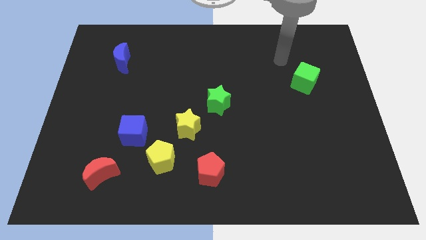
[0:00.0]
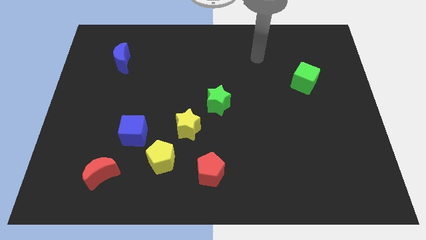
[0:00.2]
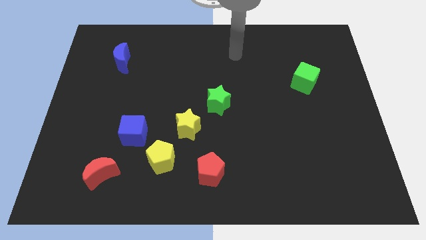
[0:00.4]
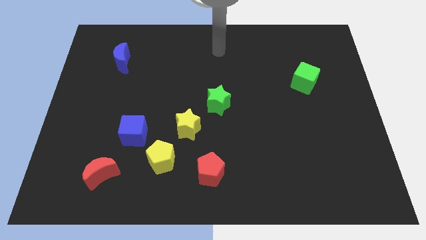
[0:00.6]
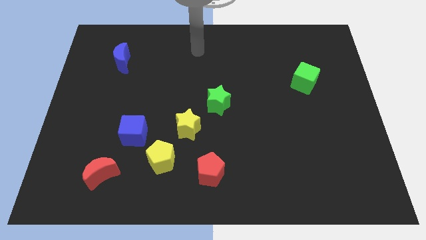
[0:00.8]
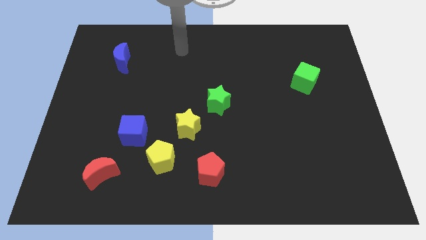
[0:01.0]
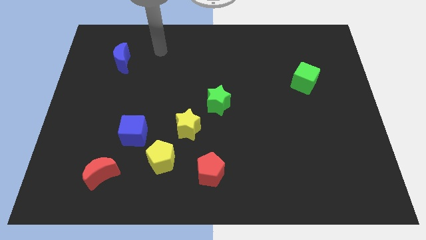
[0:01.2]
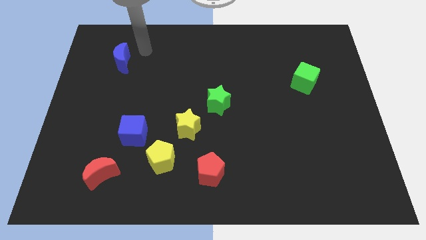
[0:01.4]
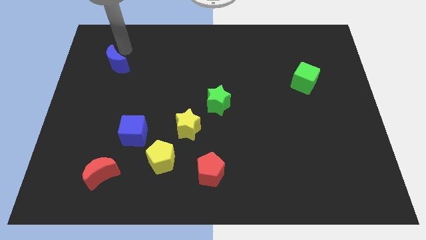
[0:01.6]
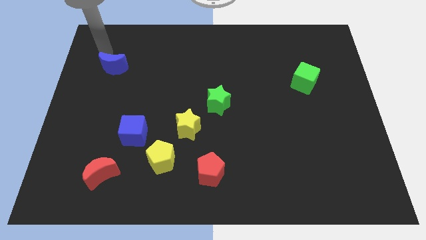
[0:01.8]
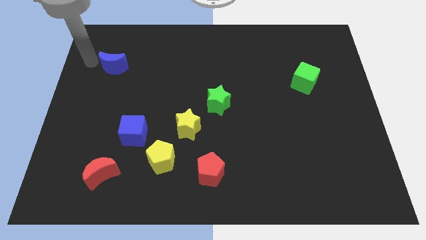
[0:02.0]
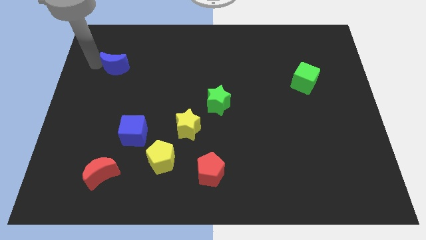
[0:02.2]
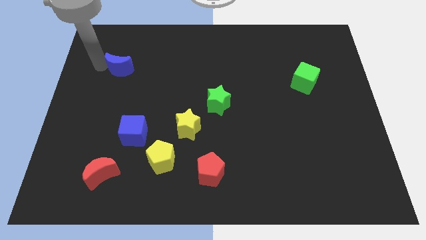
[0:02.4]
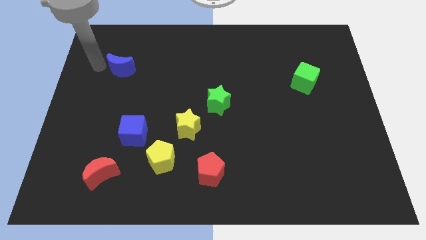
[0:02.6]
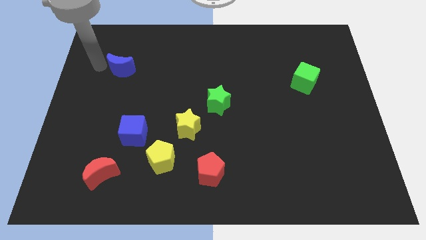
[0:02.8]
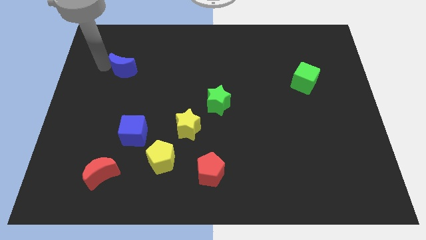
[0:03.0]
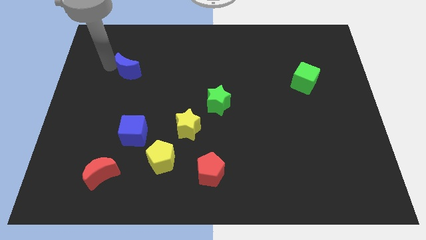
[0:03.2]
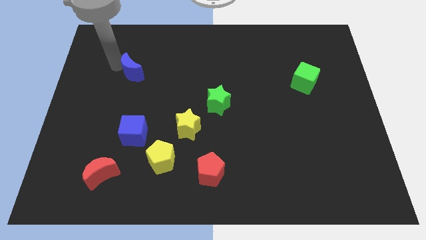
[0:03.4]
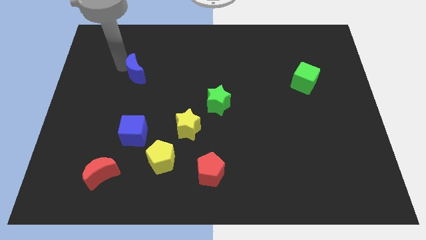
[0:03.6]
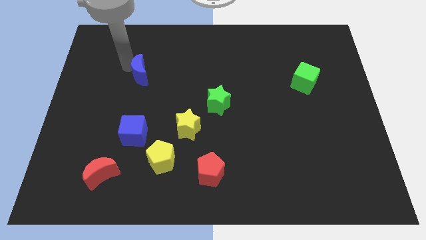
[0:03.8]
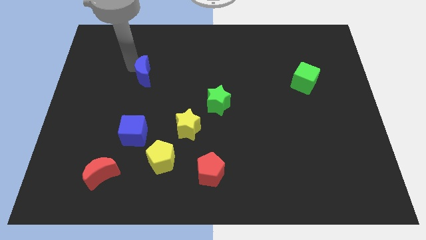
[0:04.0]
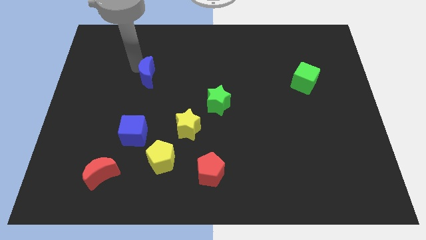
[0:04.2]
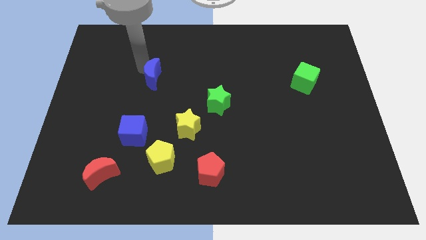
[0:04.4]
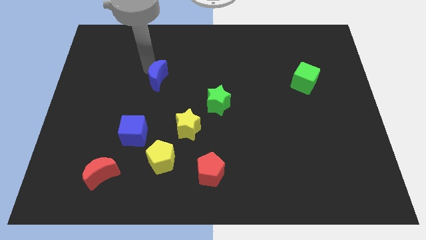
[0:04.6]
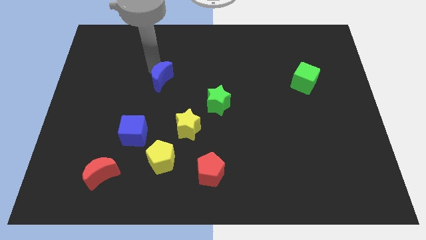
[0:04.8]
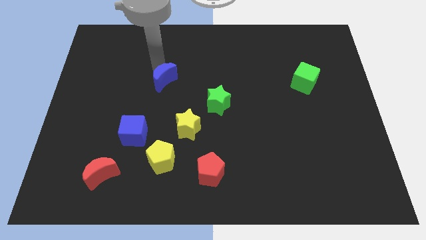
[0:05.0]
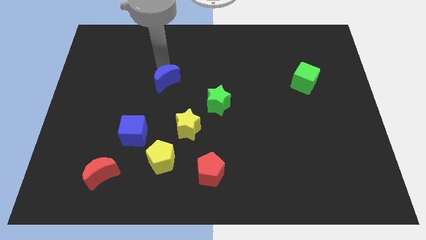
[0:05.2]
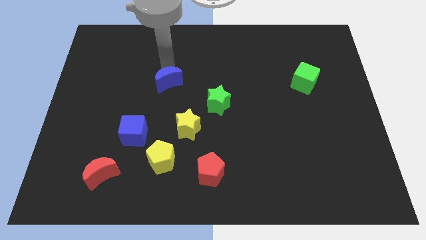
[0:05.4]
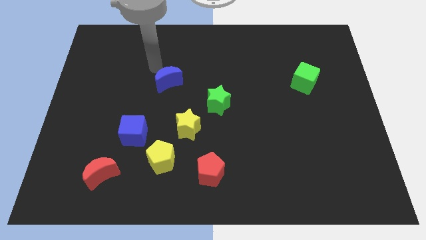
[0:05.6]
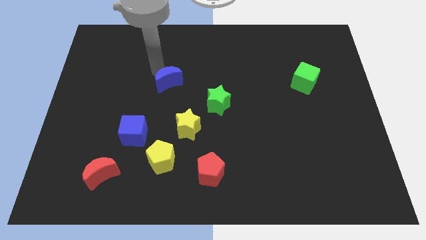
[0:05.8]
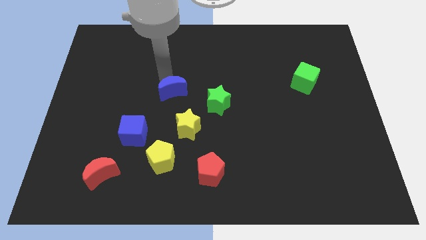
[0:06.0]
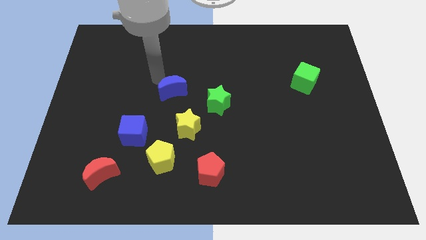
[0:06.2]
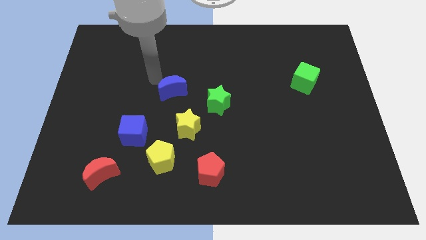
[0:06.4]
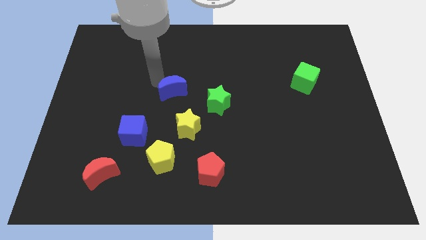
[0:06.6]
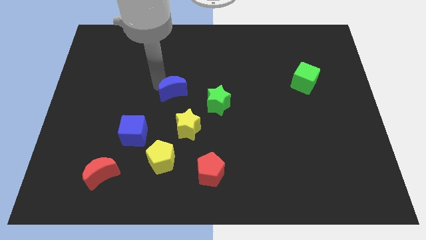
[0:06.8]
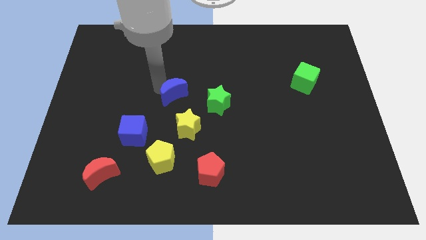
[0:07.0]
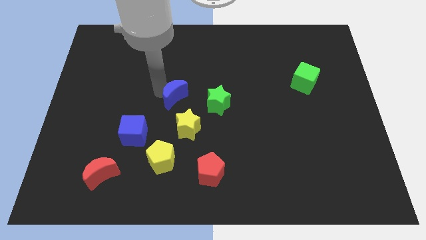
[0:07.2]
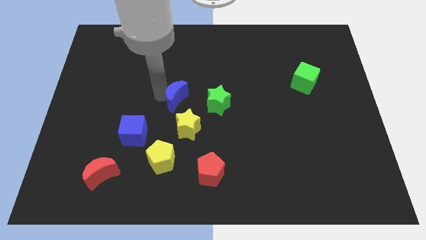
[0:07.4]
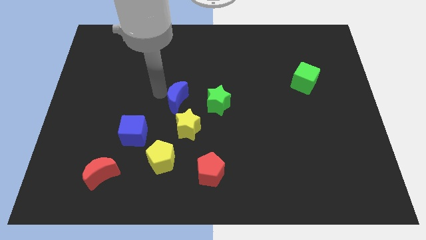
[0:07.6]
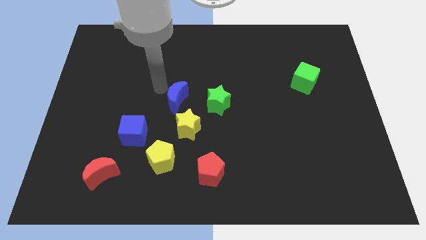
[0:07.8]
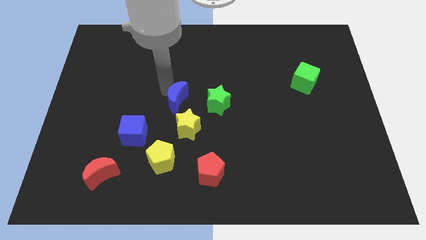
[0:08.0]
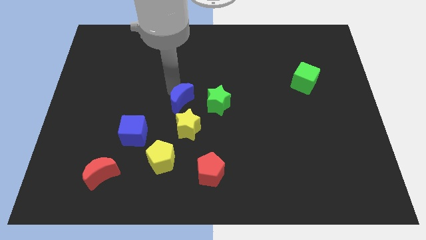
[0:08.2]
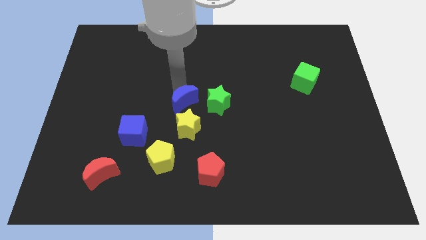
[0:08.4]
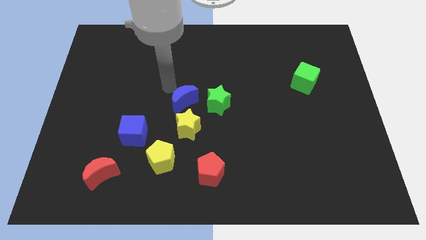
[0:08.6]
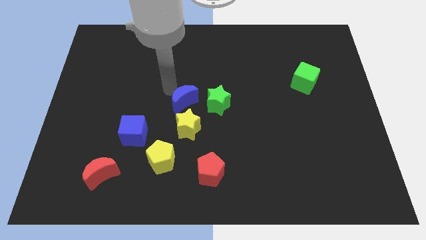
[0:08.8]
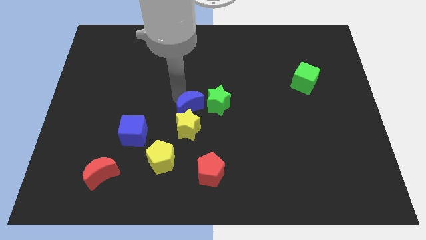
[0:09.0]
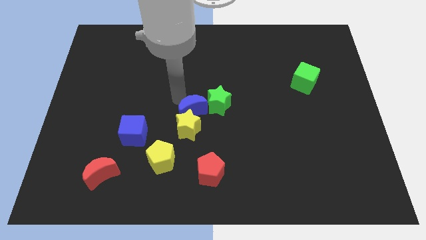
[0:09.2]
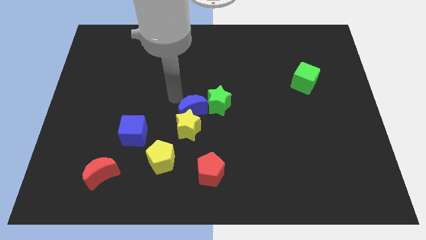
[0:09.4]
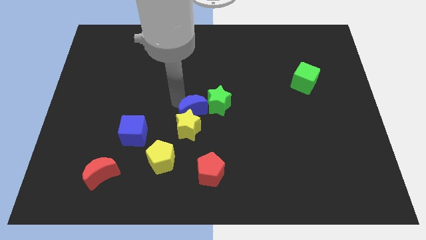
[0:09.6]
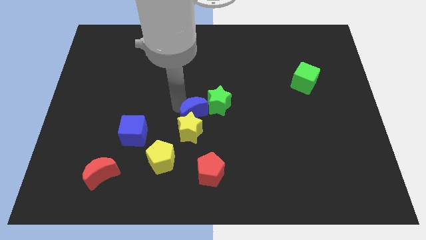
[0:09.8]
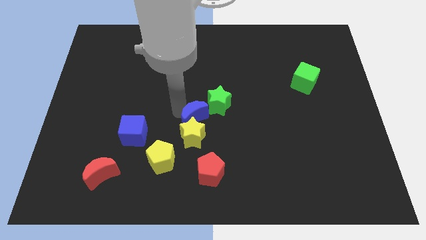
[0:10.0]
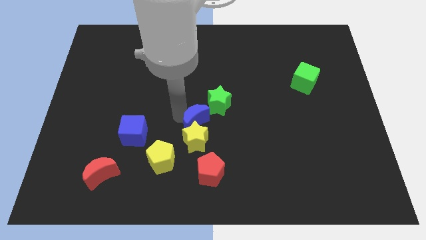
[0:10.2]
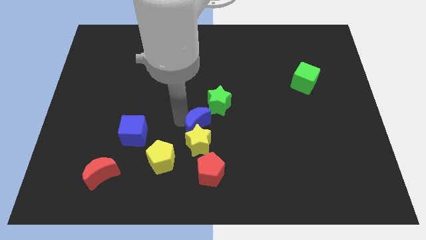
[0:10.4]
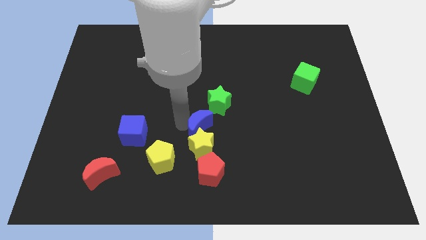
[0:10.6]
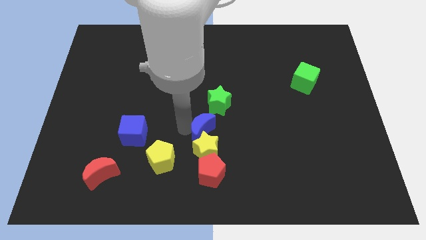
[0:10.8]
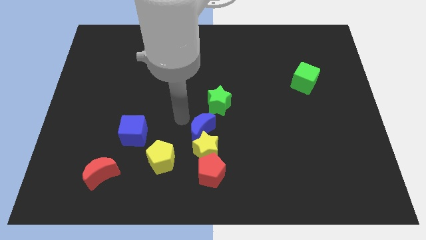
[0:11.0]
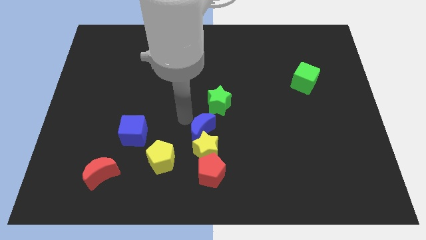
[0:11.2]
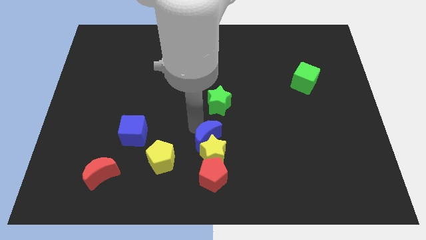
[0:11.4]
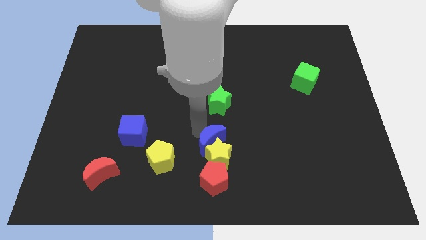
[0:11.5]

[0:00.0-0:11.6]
put the blue moon just right of the yellow pentagon

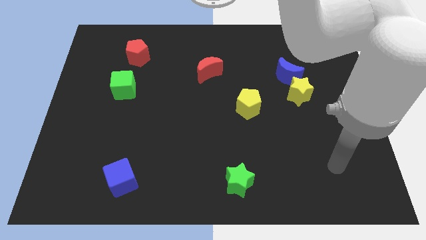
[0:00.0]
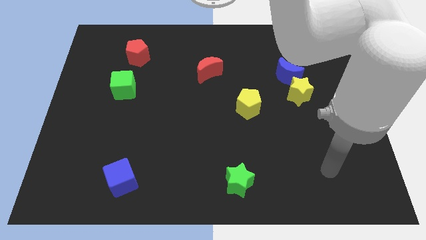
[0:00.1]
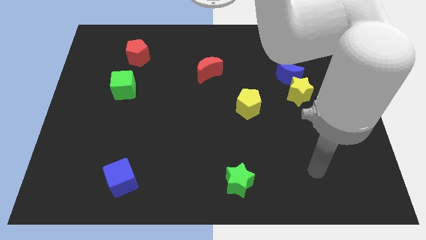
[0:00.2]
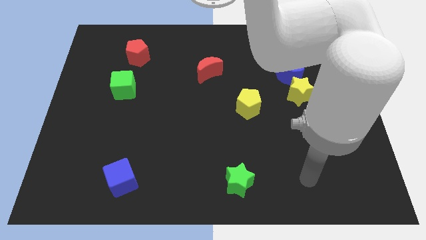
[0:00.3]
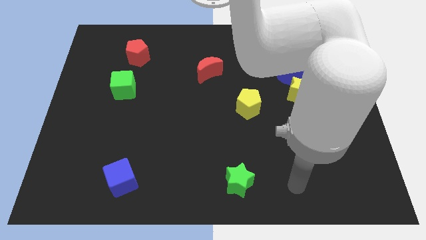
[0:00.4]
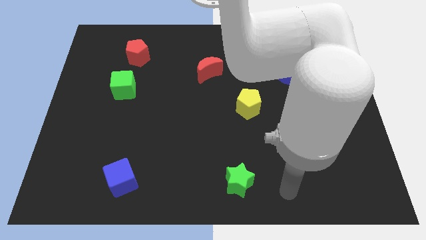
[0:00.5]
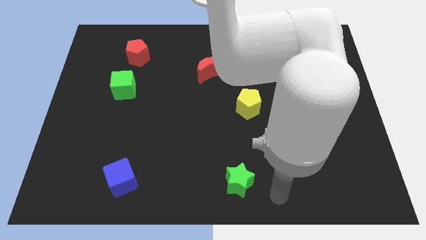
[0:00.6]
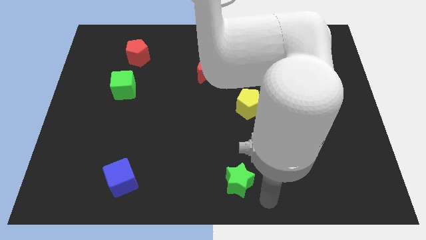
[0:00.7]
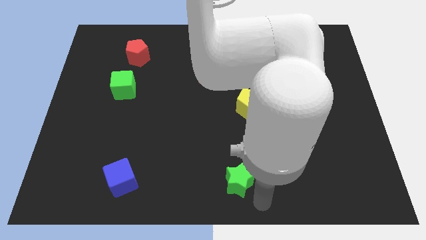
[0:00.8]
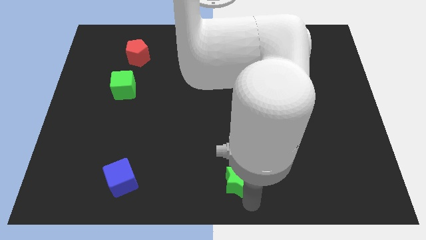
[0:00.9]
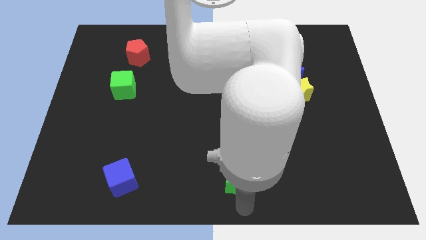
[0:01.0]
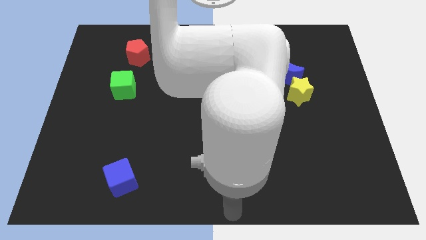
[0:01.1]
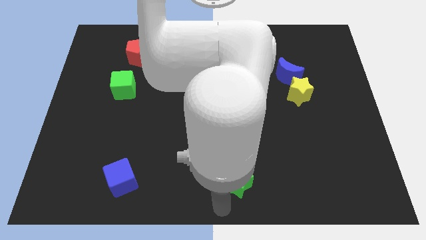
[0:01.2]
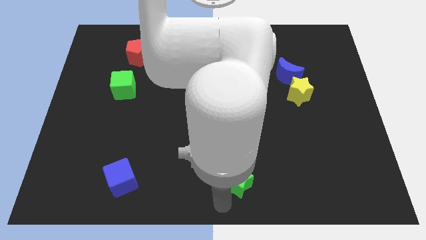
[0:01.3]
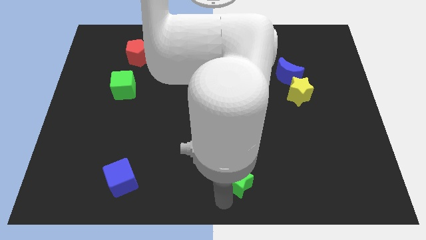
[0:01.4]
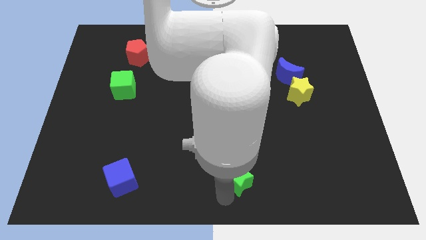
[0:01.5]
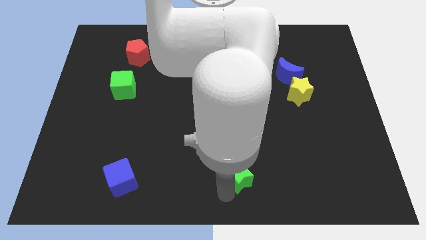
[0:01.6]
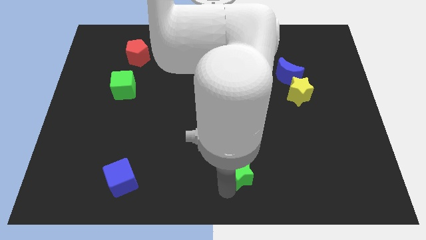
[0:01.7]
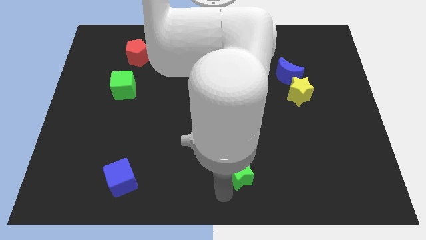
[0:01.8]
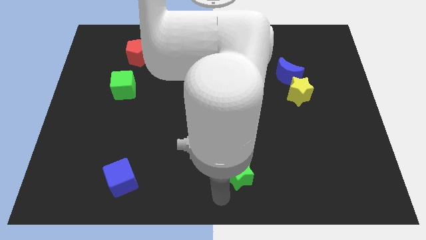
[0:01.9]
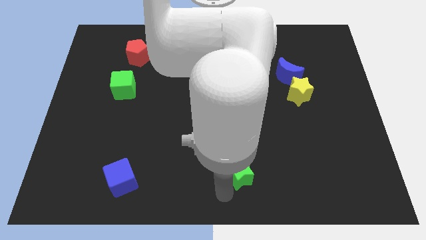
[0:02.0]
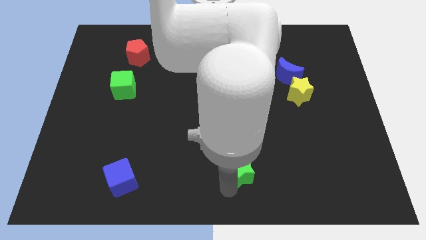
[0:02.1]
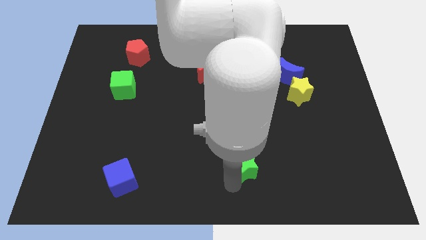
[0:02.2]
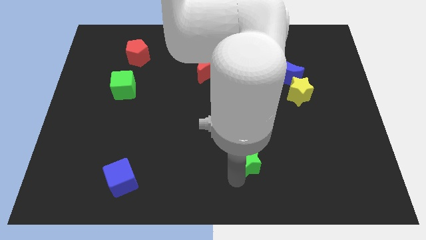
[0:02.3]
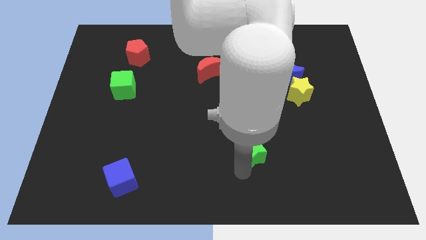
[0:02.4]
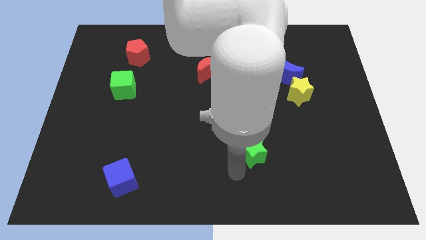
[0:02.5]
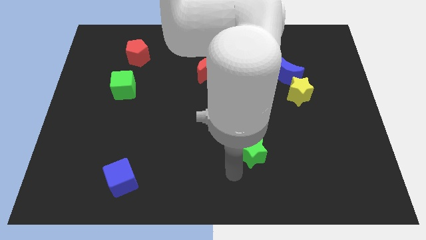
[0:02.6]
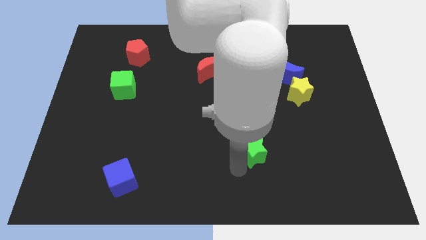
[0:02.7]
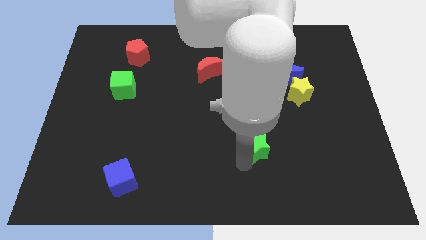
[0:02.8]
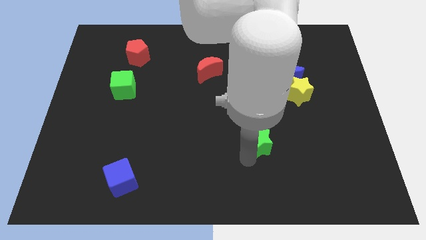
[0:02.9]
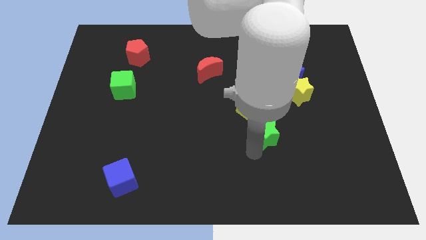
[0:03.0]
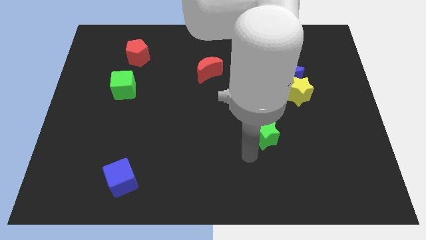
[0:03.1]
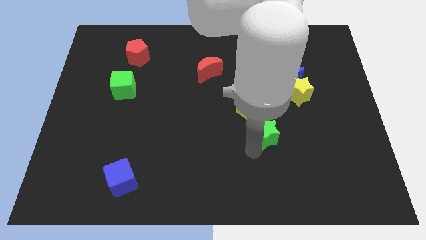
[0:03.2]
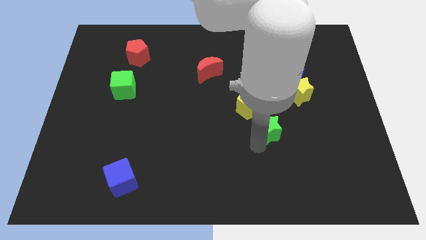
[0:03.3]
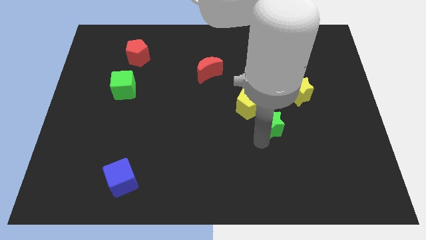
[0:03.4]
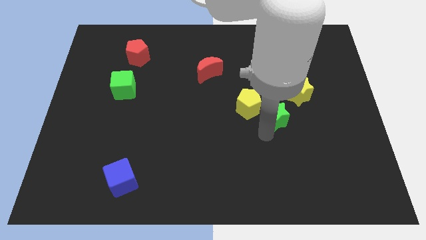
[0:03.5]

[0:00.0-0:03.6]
move the green star right of the yellow pentagon
